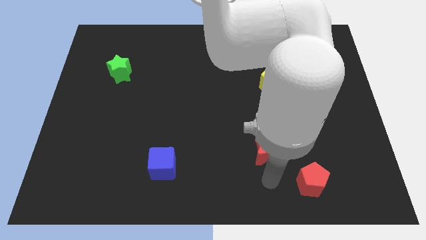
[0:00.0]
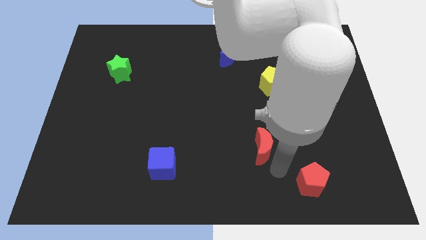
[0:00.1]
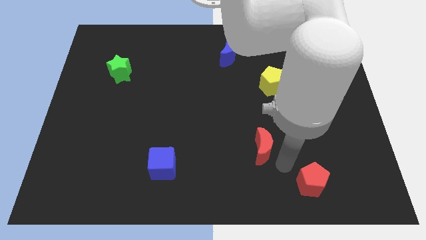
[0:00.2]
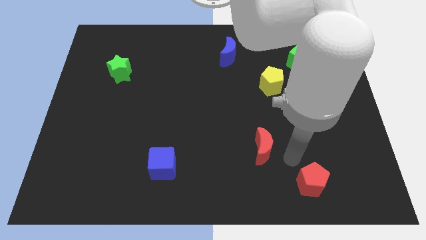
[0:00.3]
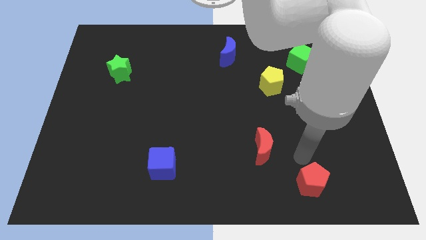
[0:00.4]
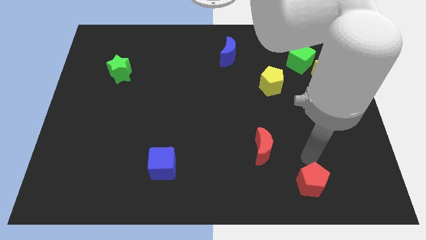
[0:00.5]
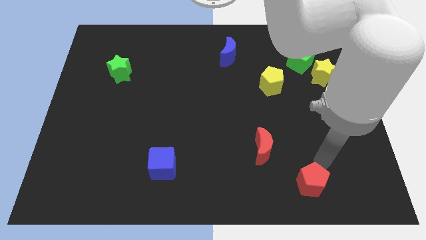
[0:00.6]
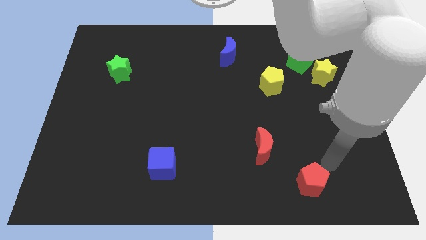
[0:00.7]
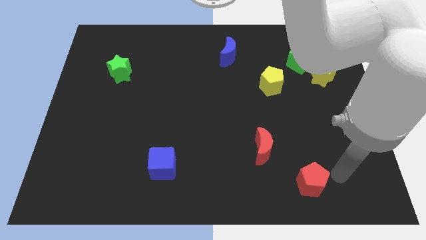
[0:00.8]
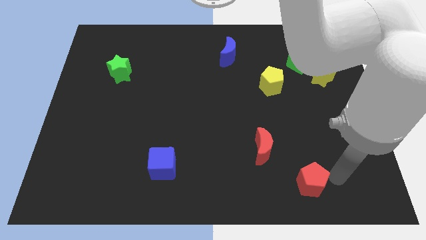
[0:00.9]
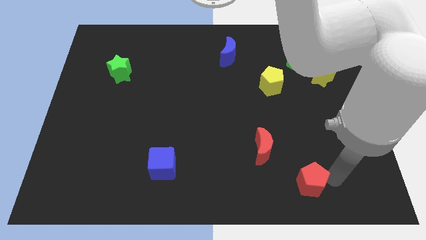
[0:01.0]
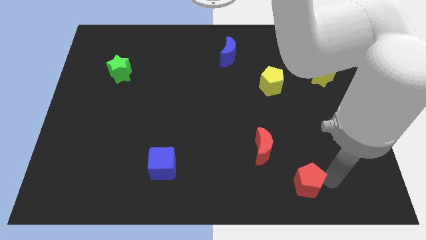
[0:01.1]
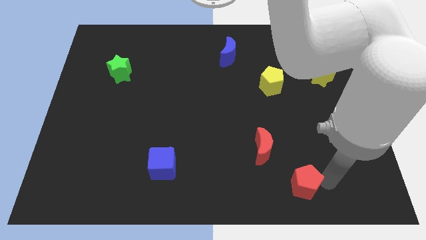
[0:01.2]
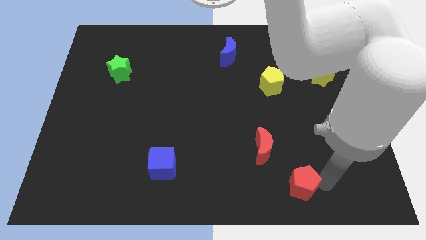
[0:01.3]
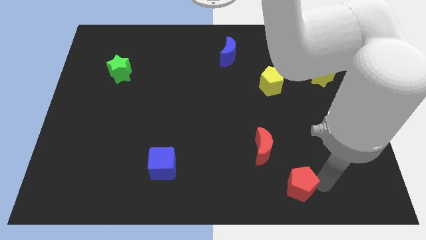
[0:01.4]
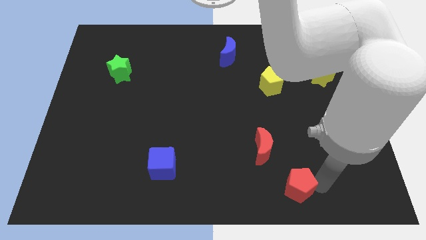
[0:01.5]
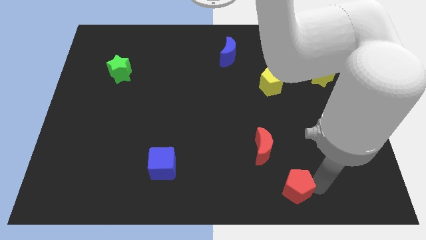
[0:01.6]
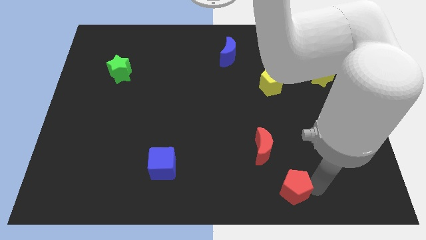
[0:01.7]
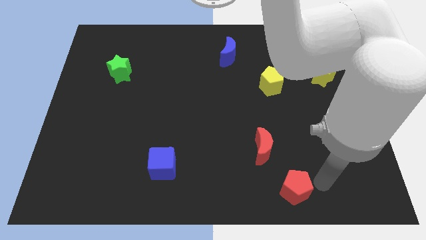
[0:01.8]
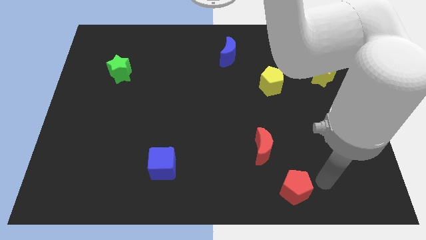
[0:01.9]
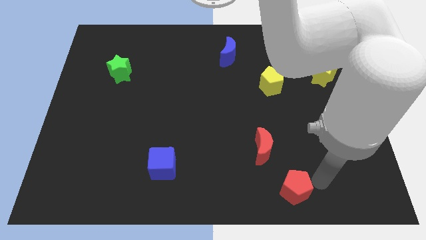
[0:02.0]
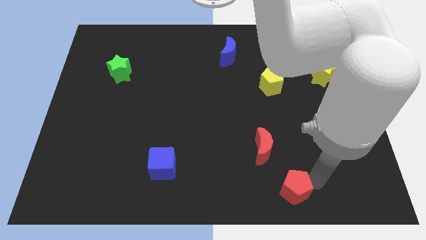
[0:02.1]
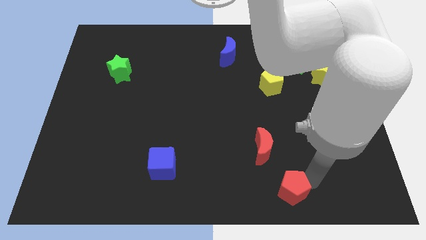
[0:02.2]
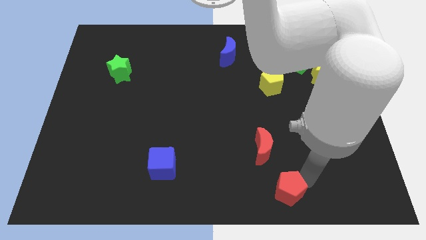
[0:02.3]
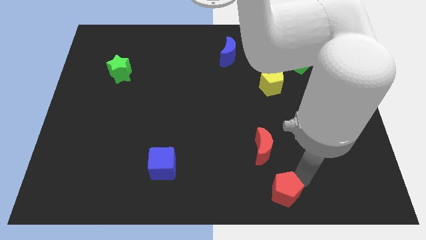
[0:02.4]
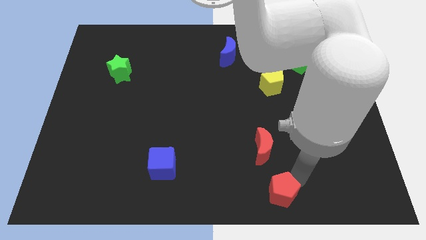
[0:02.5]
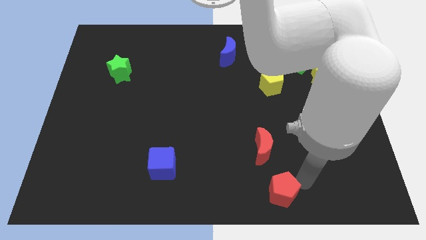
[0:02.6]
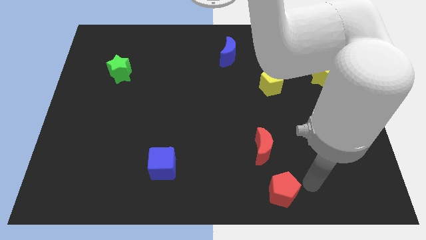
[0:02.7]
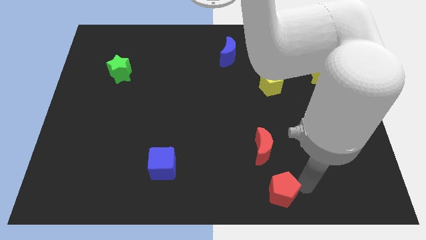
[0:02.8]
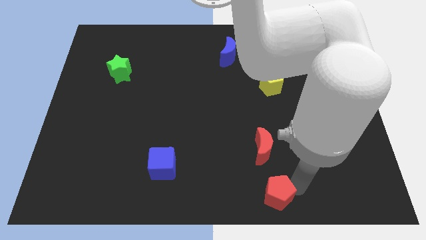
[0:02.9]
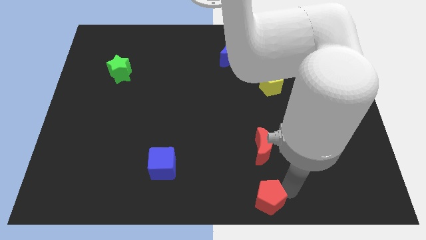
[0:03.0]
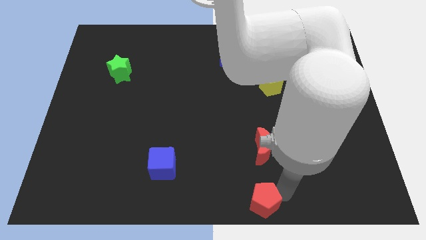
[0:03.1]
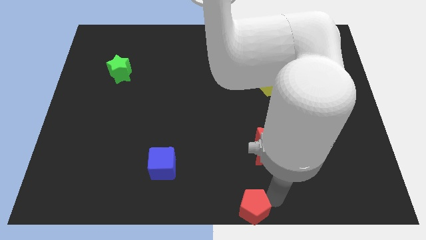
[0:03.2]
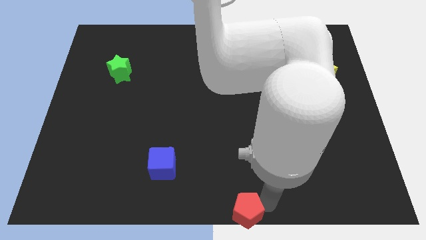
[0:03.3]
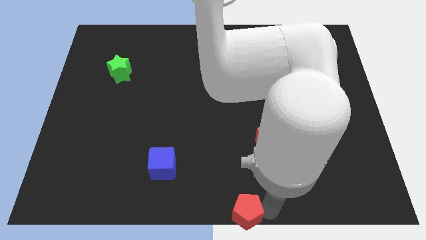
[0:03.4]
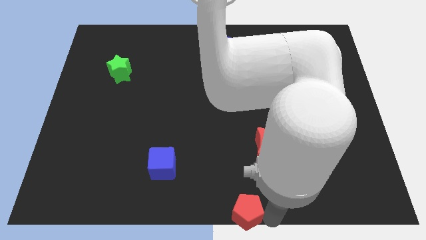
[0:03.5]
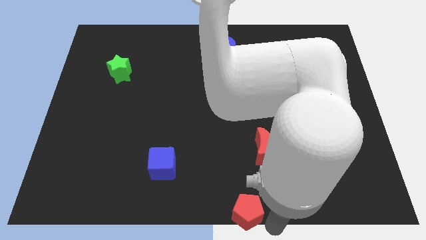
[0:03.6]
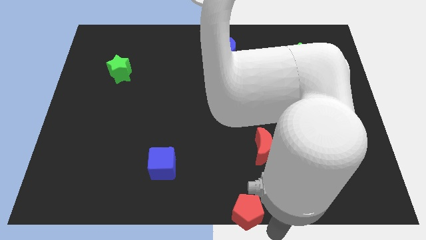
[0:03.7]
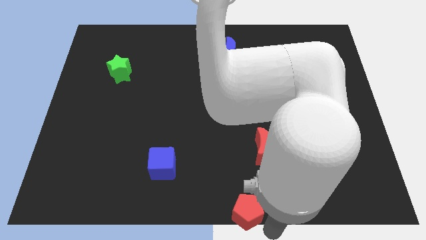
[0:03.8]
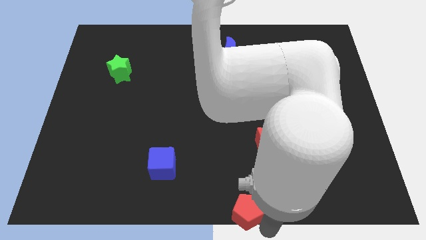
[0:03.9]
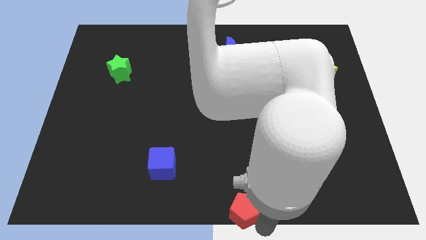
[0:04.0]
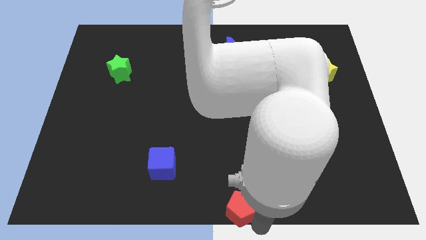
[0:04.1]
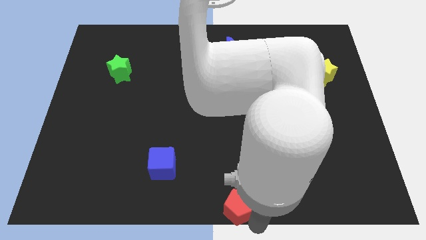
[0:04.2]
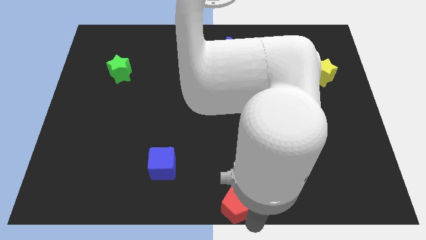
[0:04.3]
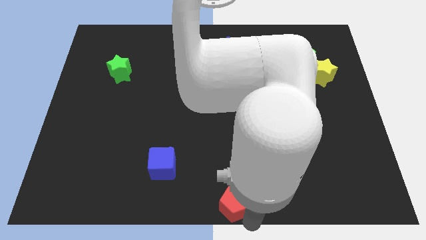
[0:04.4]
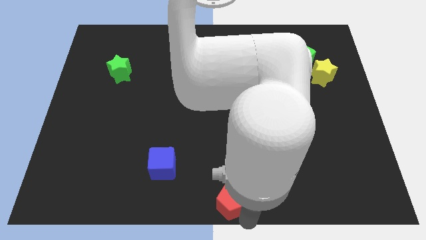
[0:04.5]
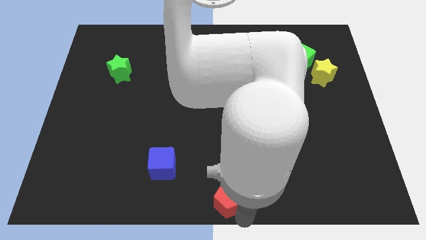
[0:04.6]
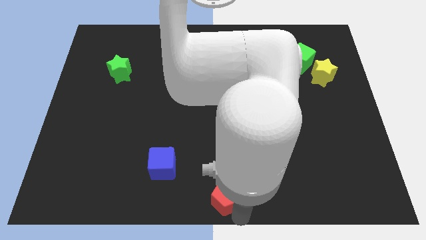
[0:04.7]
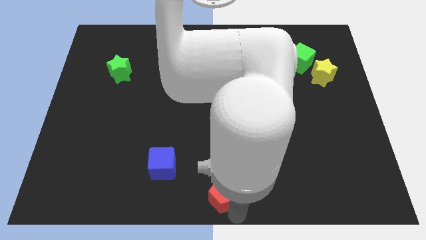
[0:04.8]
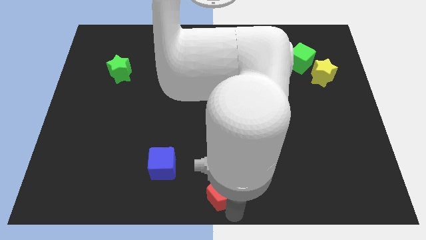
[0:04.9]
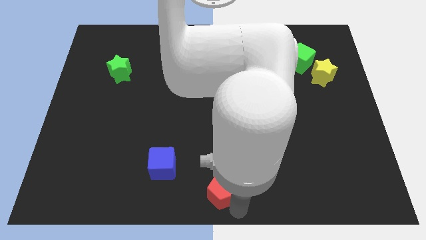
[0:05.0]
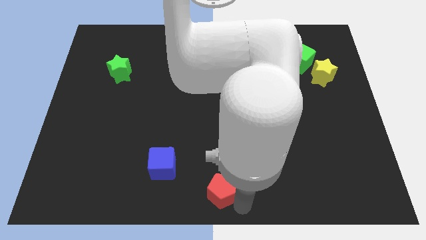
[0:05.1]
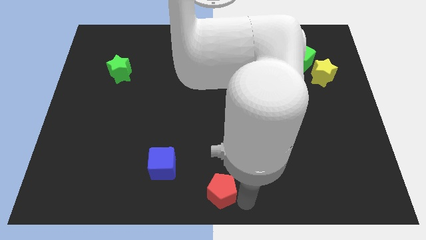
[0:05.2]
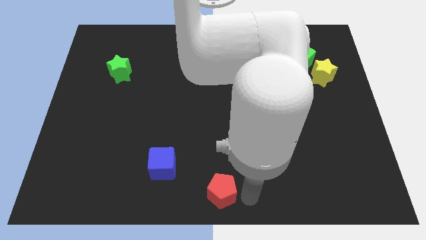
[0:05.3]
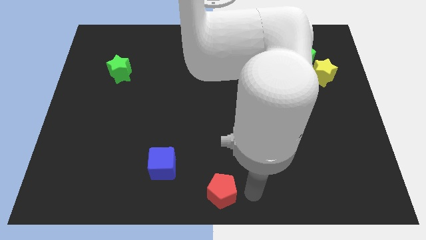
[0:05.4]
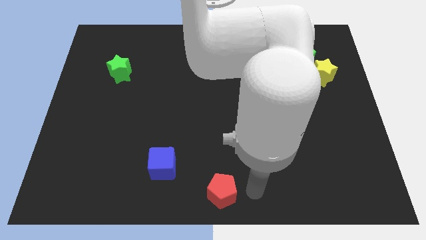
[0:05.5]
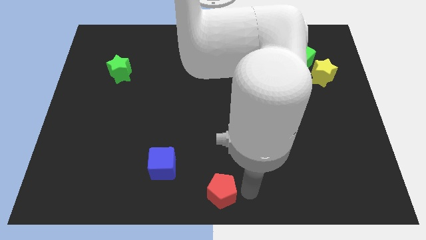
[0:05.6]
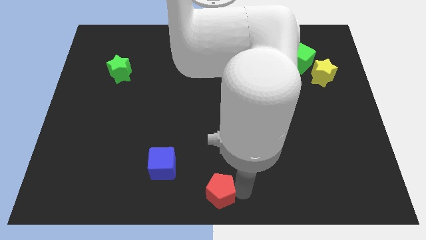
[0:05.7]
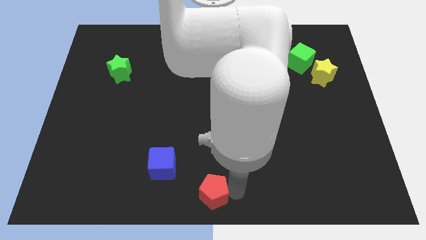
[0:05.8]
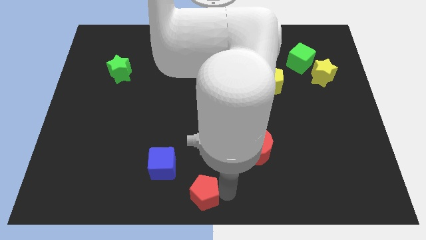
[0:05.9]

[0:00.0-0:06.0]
slide the red pentagon left

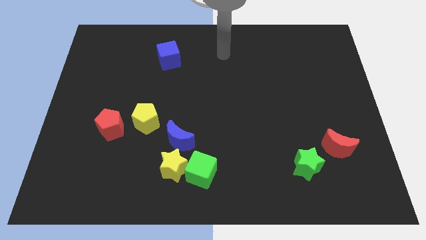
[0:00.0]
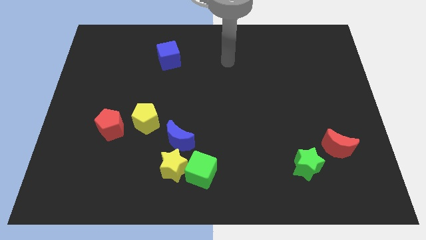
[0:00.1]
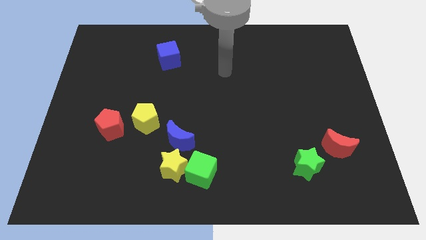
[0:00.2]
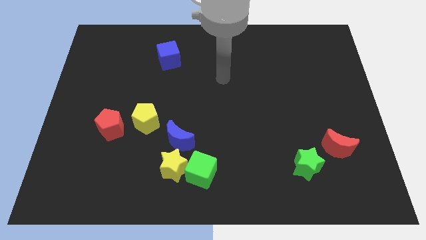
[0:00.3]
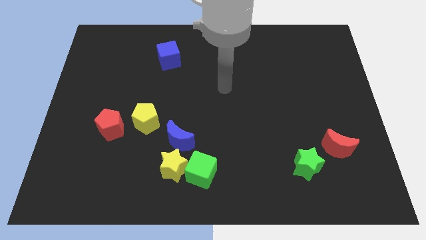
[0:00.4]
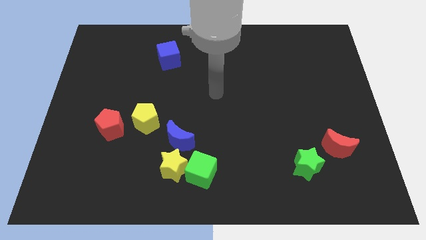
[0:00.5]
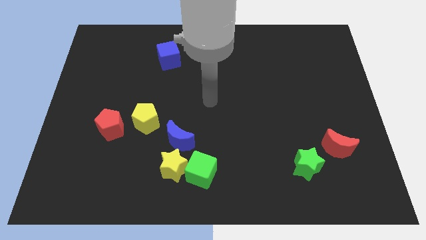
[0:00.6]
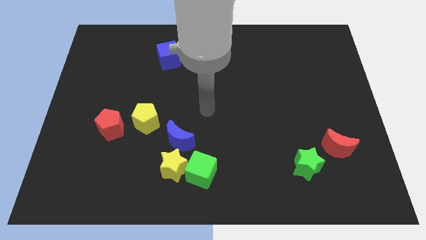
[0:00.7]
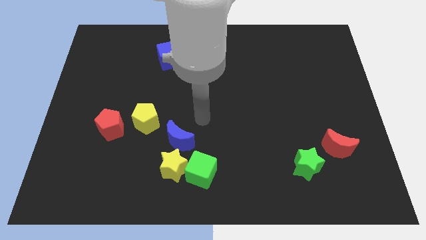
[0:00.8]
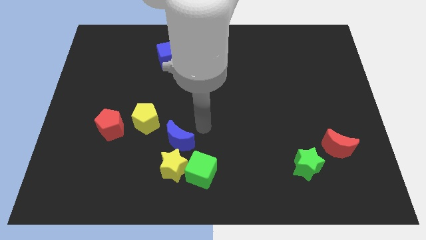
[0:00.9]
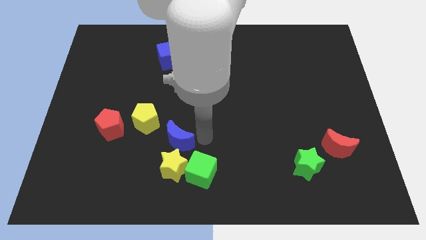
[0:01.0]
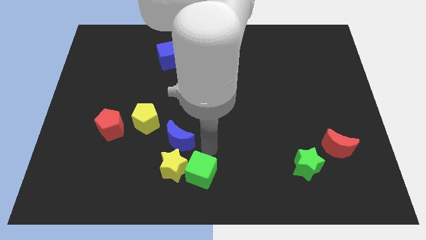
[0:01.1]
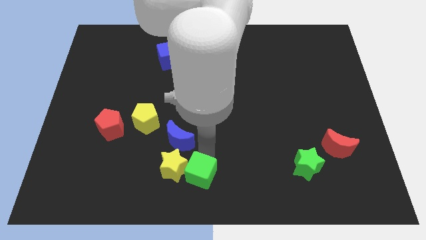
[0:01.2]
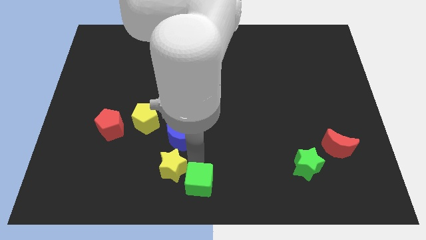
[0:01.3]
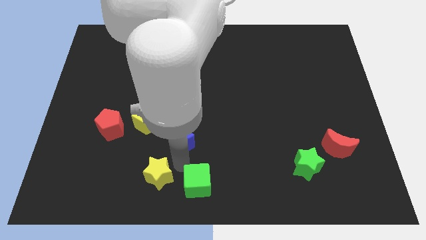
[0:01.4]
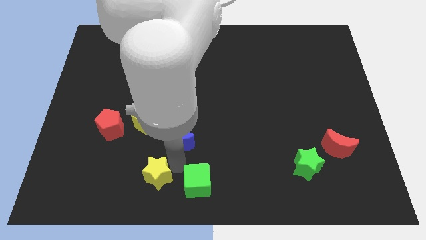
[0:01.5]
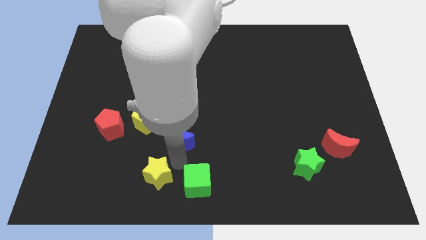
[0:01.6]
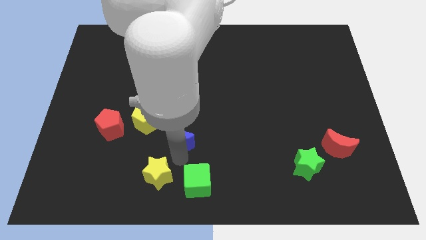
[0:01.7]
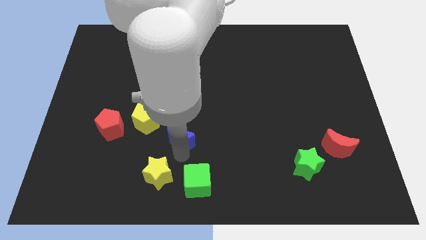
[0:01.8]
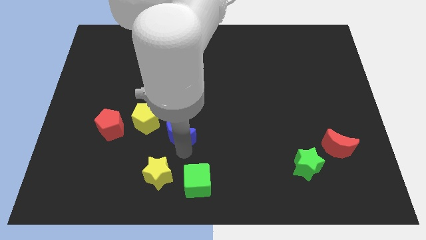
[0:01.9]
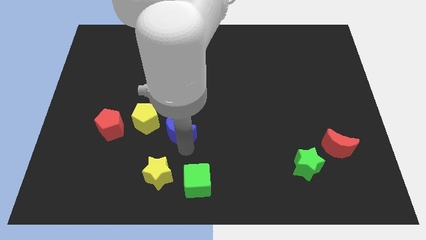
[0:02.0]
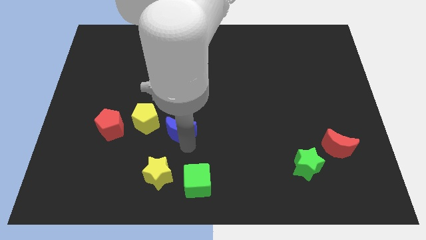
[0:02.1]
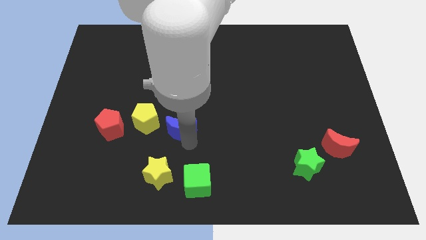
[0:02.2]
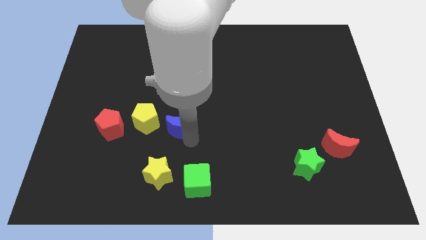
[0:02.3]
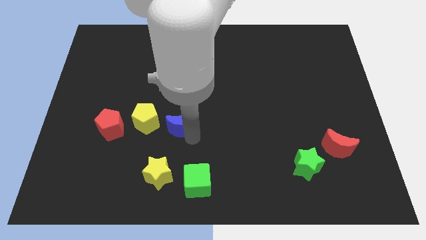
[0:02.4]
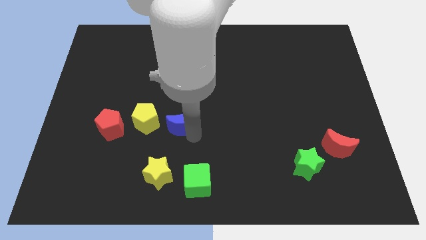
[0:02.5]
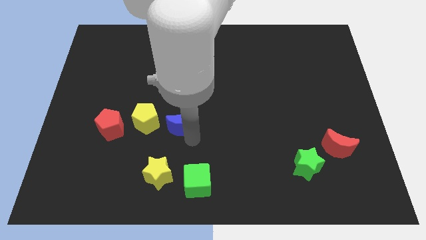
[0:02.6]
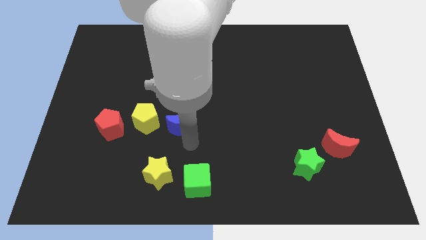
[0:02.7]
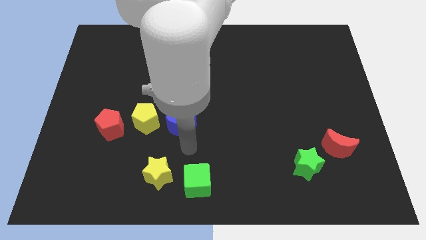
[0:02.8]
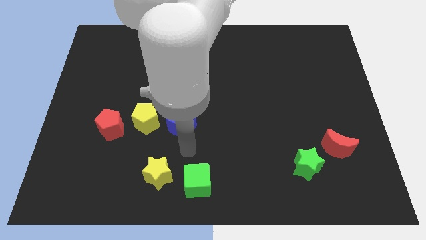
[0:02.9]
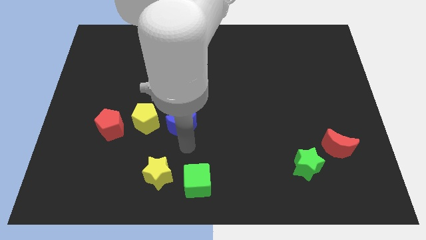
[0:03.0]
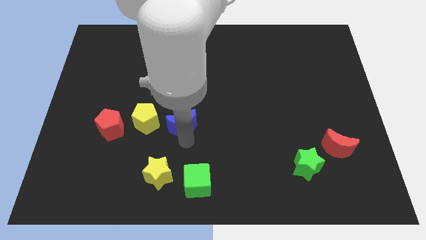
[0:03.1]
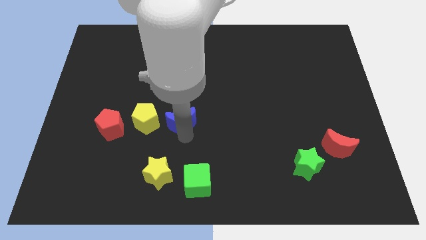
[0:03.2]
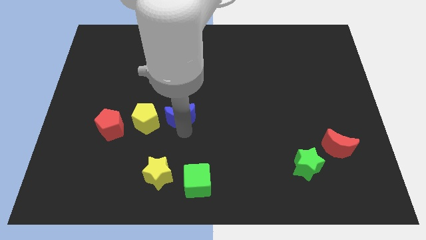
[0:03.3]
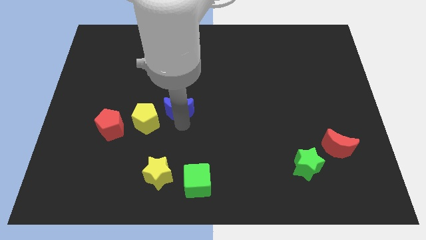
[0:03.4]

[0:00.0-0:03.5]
slide the blue moon upwards a bit
